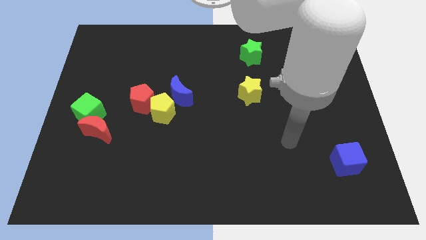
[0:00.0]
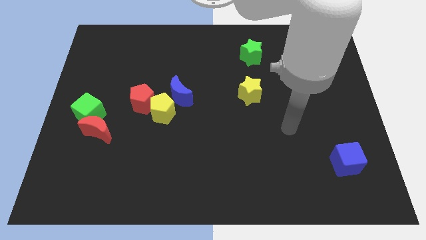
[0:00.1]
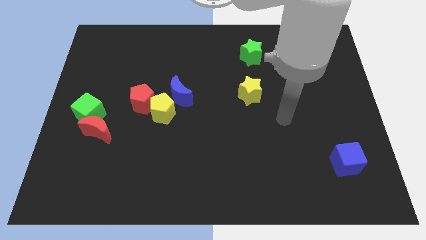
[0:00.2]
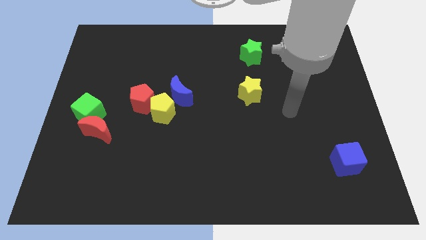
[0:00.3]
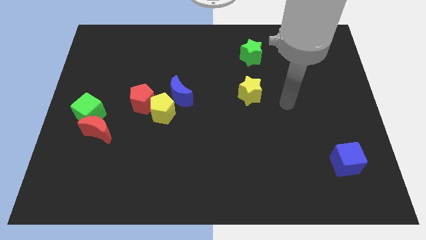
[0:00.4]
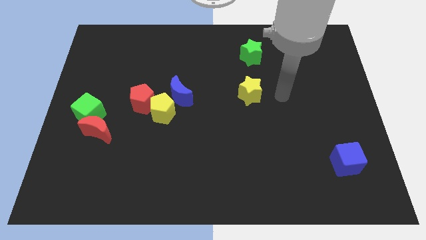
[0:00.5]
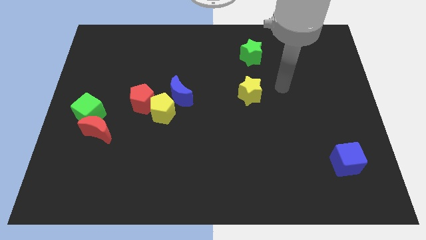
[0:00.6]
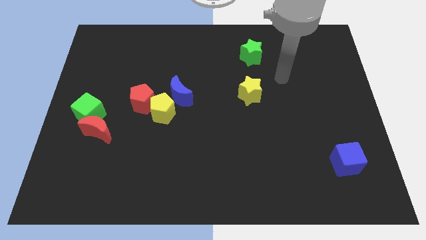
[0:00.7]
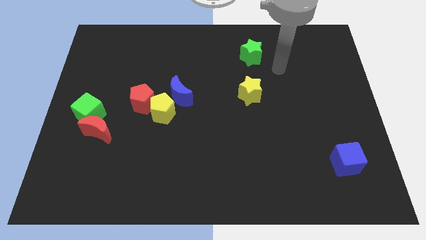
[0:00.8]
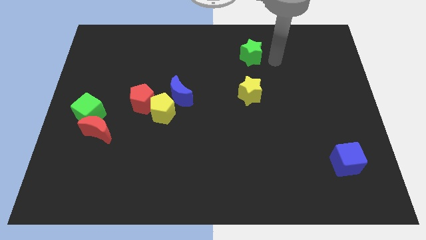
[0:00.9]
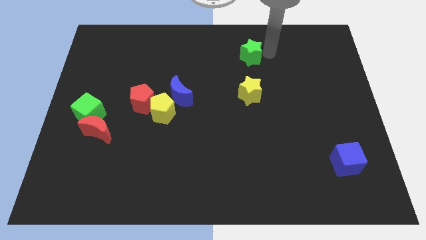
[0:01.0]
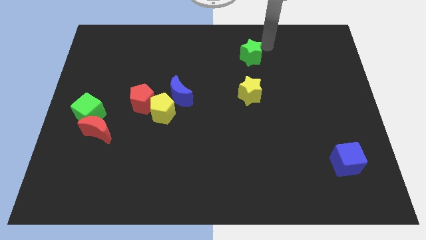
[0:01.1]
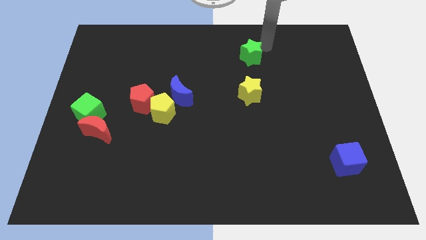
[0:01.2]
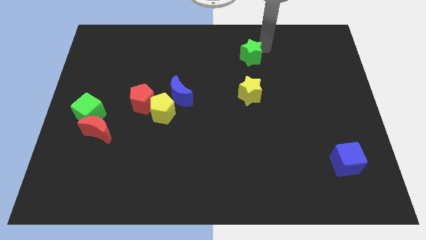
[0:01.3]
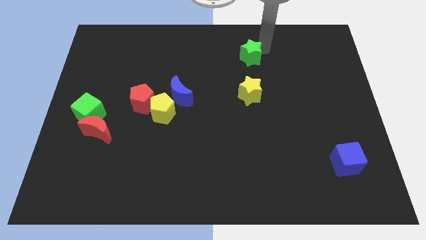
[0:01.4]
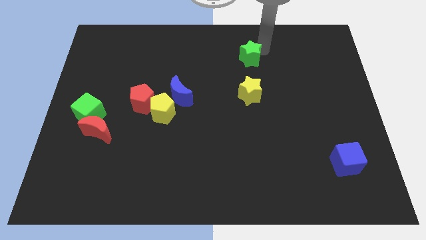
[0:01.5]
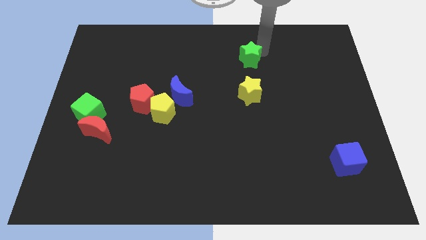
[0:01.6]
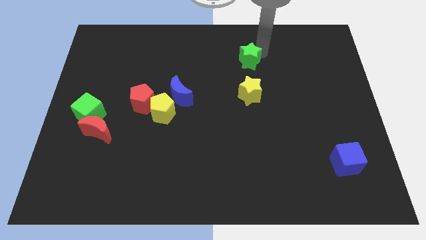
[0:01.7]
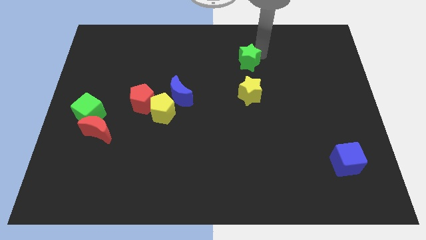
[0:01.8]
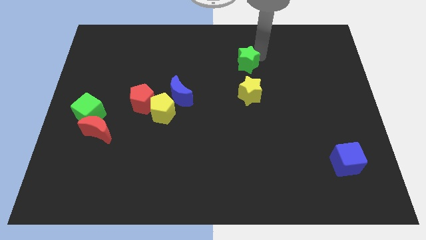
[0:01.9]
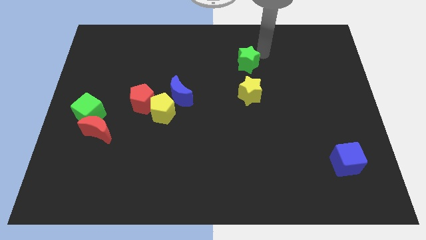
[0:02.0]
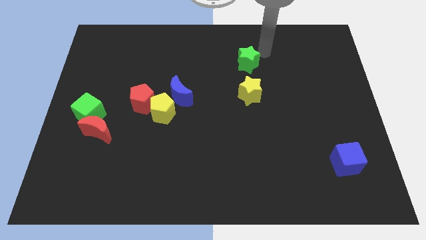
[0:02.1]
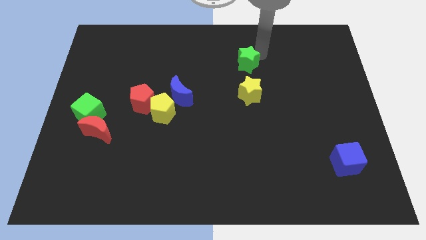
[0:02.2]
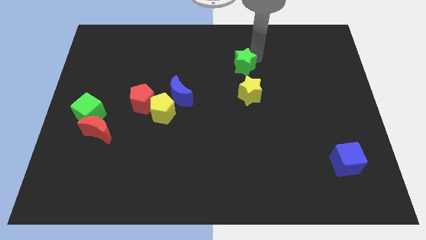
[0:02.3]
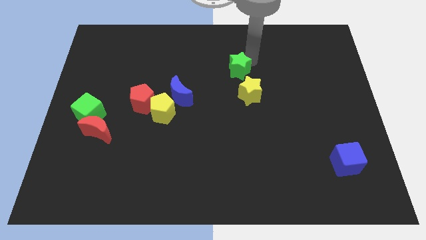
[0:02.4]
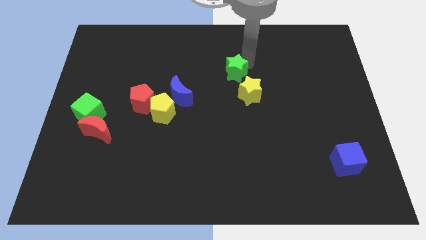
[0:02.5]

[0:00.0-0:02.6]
slightly push the green star down and to the left diagonally

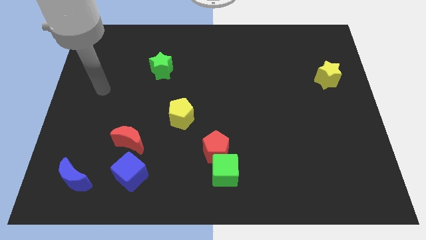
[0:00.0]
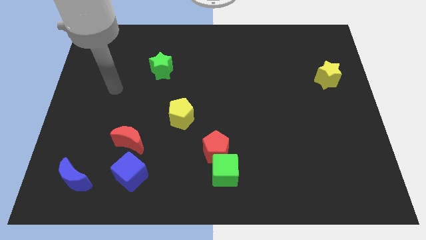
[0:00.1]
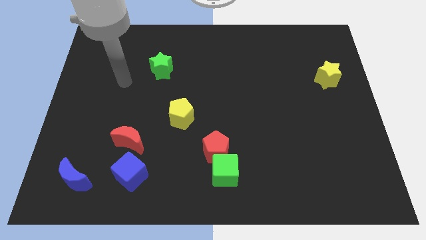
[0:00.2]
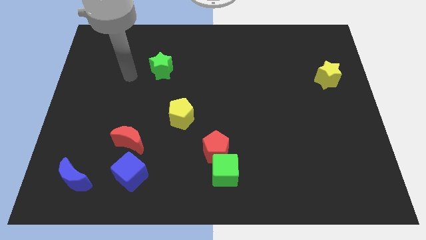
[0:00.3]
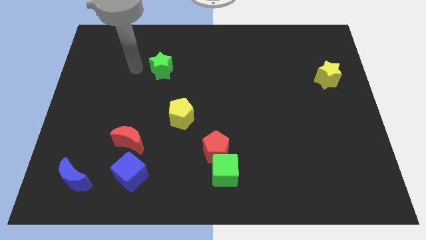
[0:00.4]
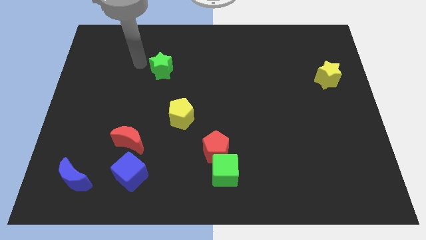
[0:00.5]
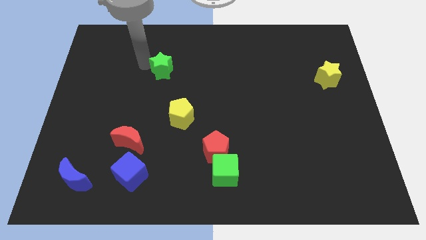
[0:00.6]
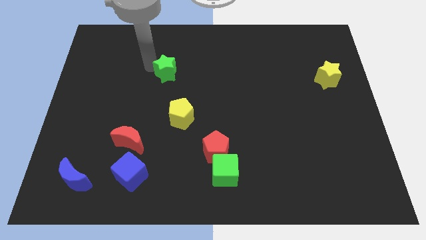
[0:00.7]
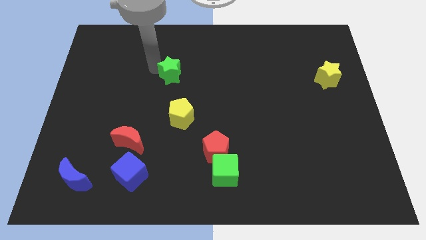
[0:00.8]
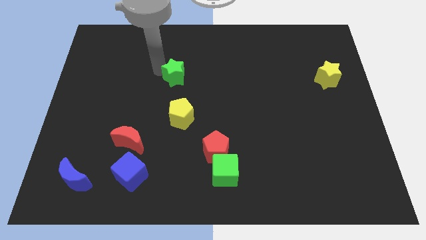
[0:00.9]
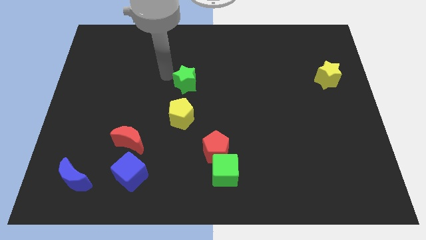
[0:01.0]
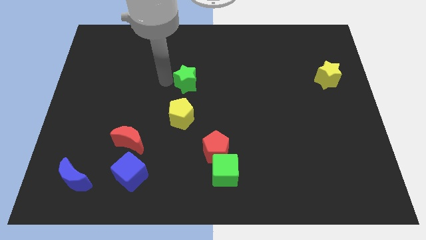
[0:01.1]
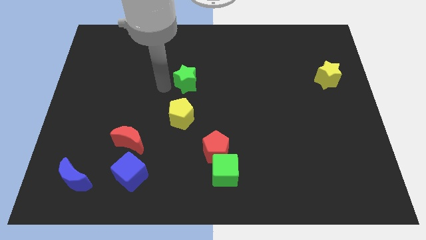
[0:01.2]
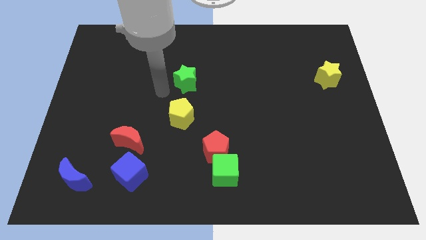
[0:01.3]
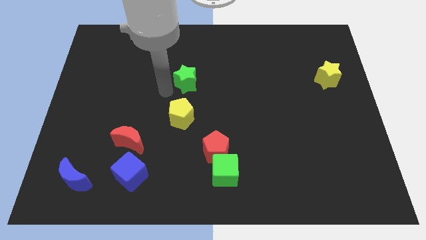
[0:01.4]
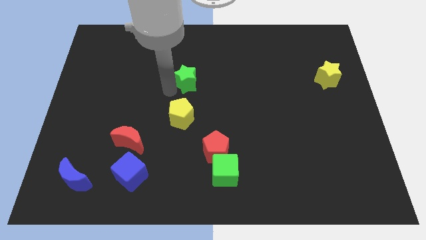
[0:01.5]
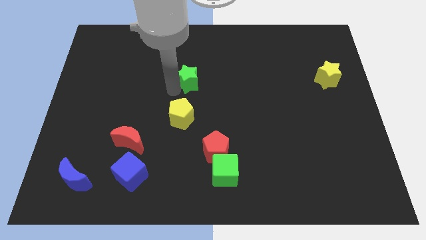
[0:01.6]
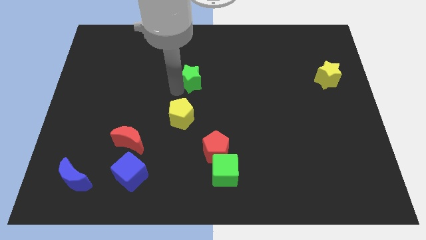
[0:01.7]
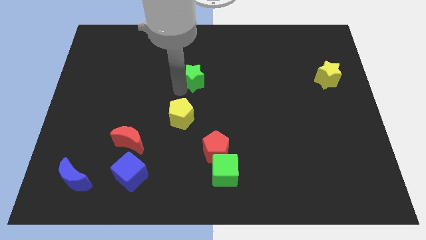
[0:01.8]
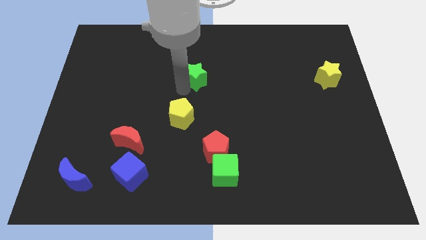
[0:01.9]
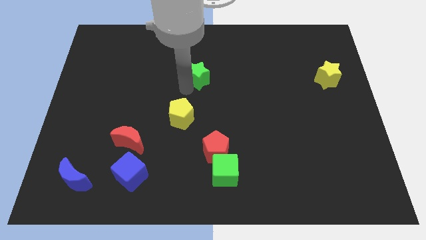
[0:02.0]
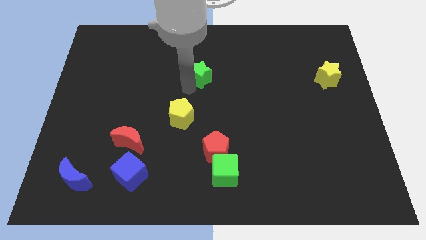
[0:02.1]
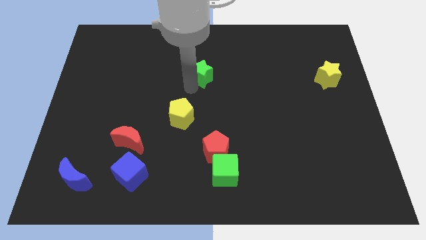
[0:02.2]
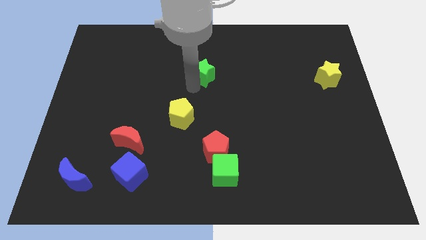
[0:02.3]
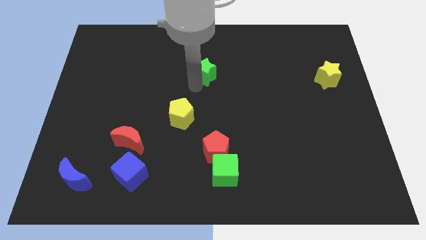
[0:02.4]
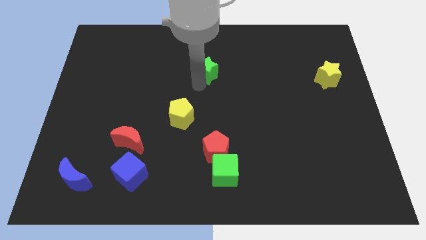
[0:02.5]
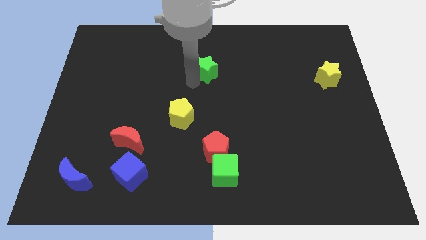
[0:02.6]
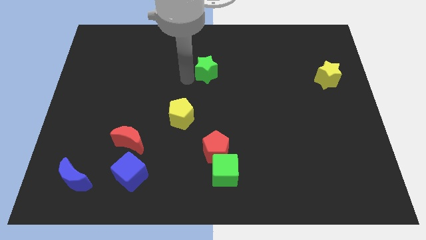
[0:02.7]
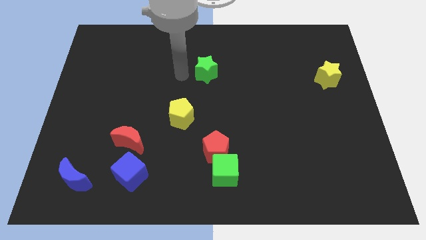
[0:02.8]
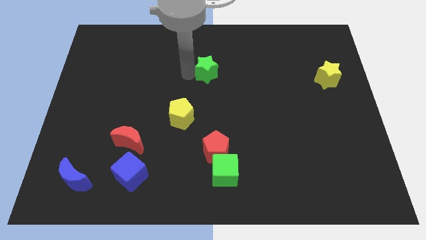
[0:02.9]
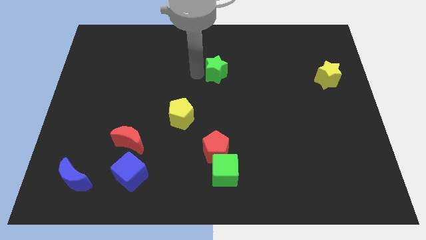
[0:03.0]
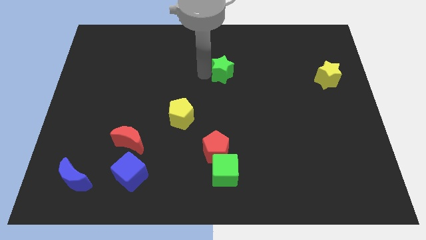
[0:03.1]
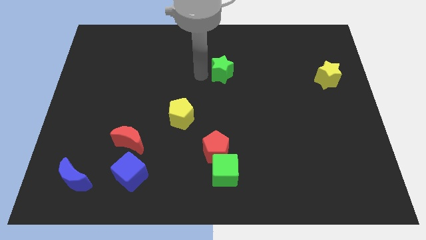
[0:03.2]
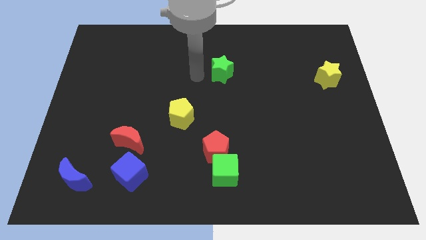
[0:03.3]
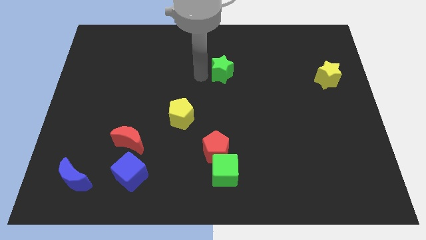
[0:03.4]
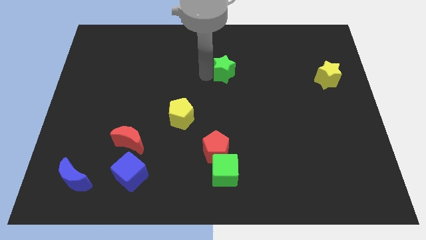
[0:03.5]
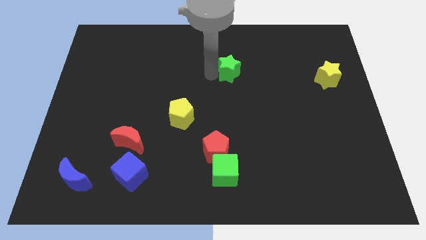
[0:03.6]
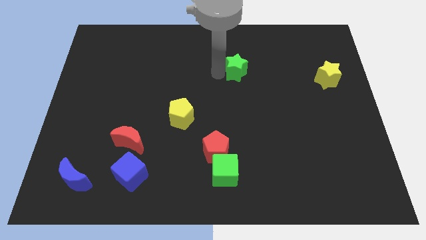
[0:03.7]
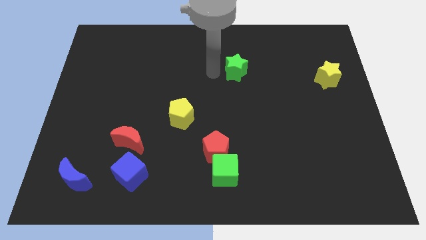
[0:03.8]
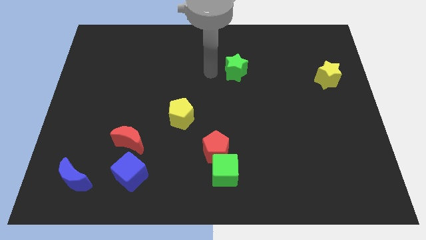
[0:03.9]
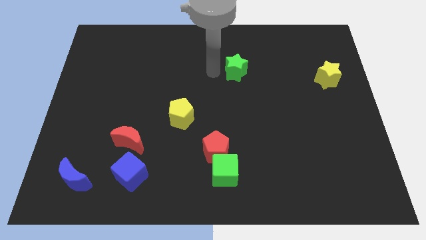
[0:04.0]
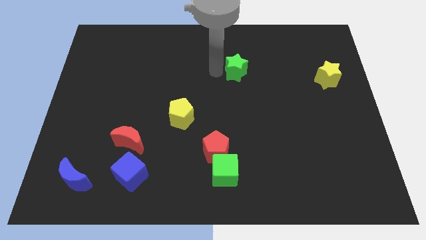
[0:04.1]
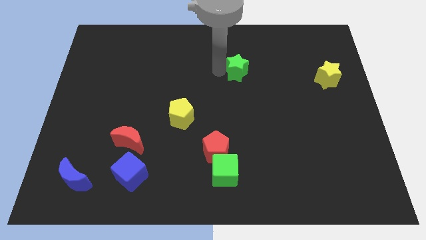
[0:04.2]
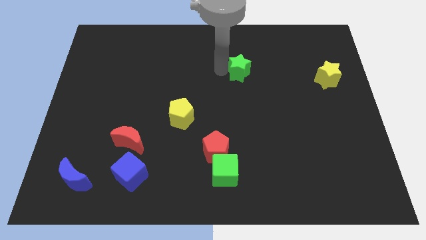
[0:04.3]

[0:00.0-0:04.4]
move the green star right

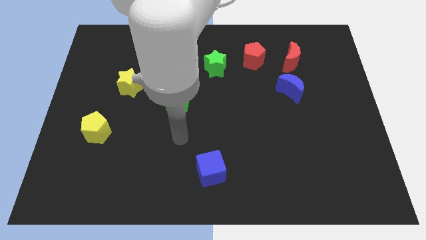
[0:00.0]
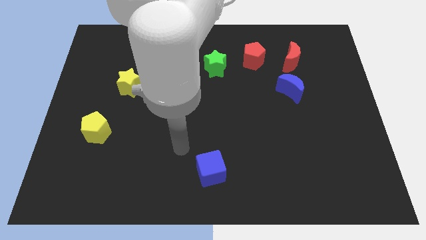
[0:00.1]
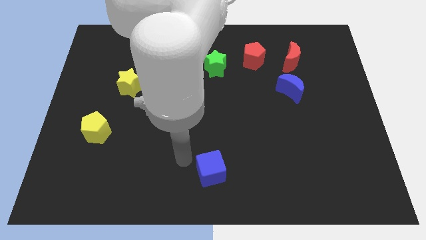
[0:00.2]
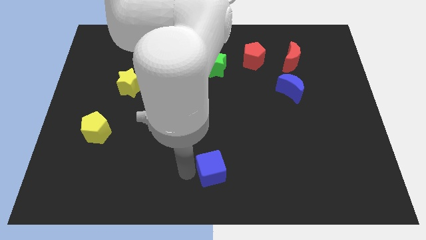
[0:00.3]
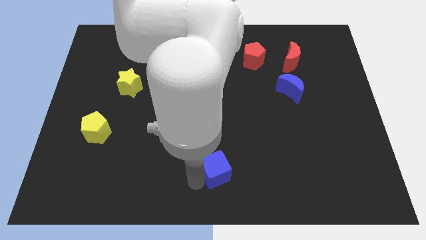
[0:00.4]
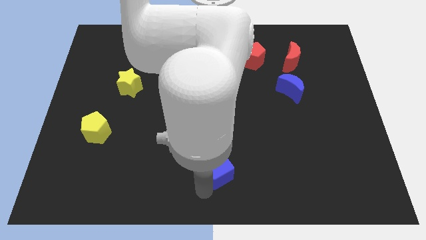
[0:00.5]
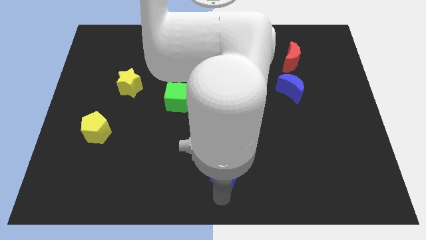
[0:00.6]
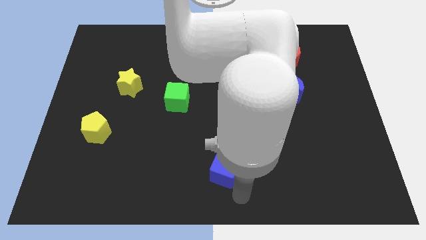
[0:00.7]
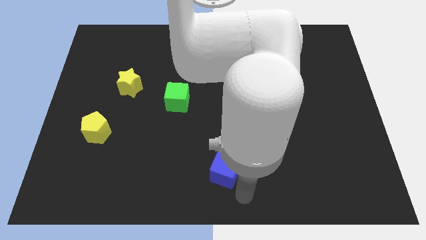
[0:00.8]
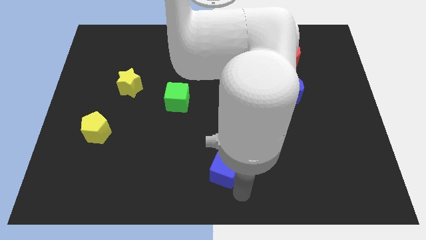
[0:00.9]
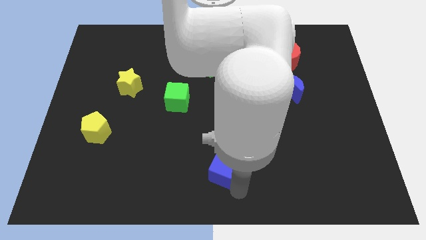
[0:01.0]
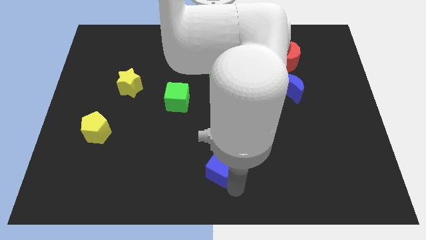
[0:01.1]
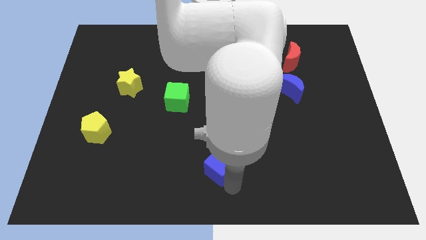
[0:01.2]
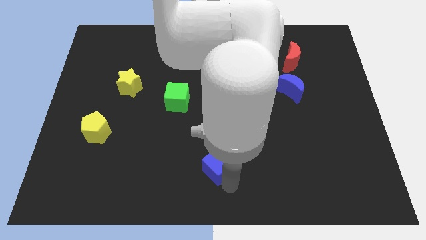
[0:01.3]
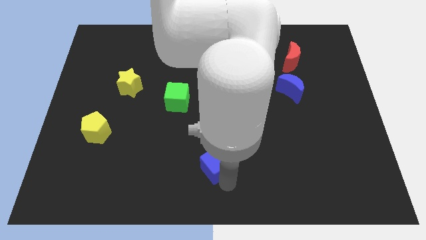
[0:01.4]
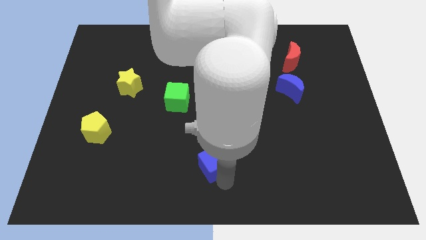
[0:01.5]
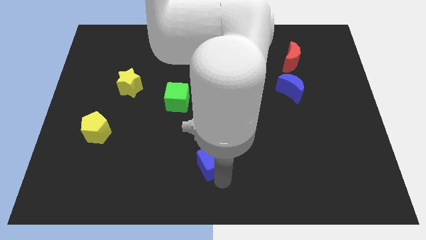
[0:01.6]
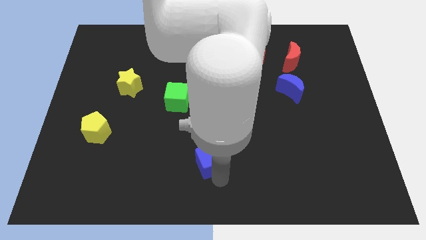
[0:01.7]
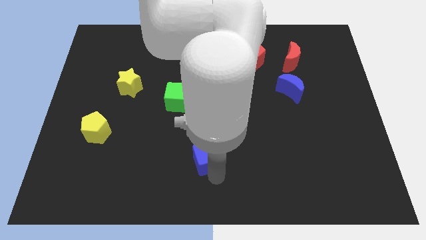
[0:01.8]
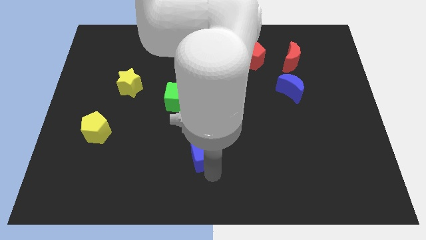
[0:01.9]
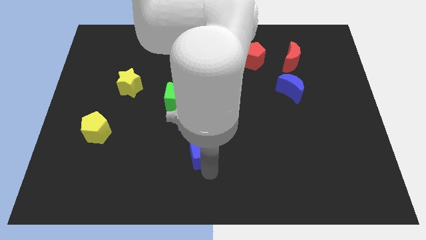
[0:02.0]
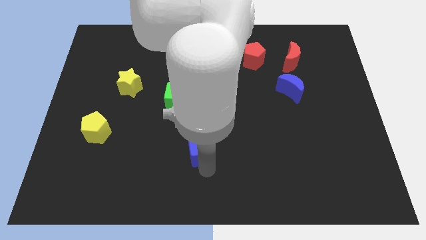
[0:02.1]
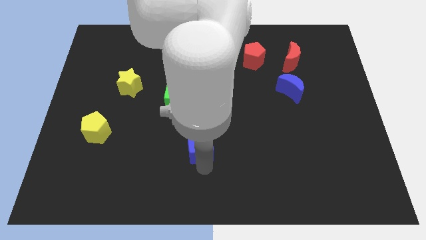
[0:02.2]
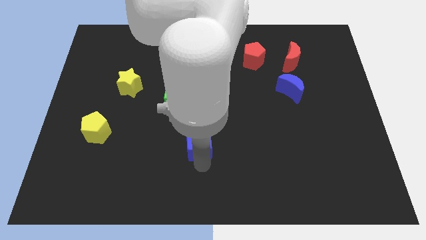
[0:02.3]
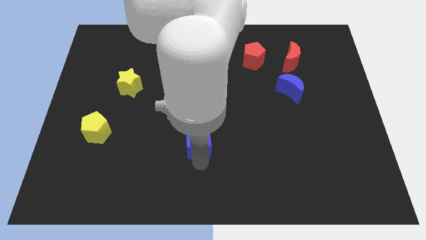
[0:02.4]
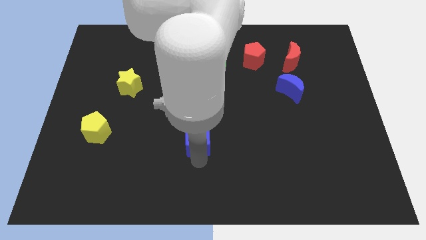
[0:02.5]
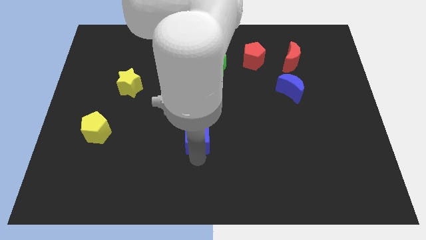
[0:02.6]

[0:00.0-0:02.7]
slightly move the blue cube up
